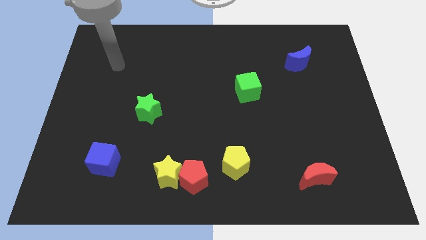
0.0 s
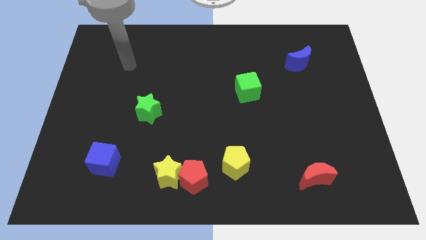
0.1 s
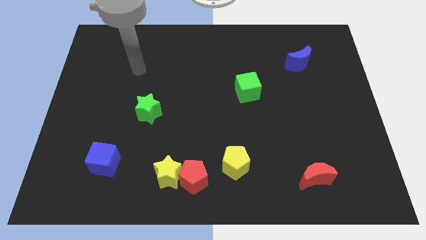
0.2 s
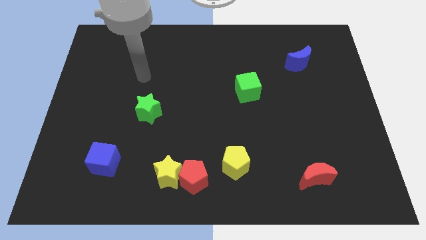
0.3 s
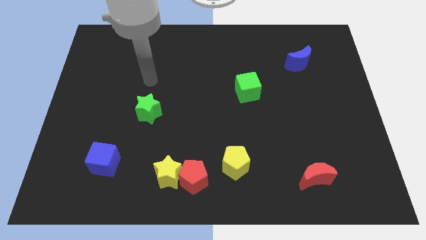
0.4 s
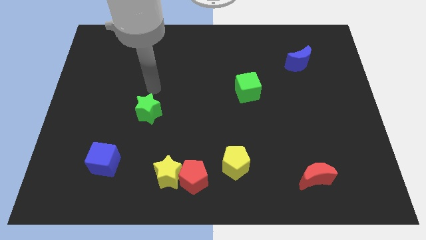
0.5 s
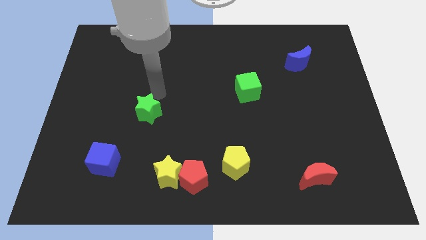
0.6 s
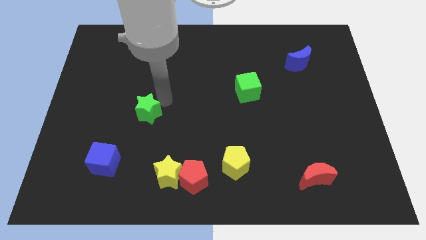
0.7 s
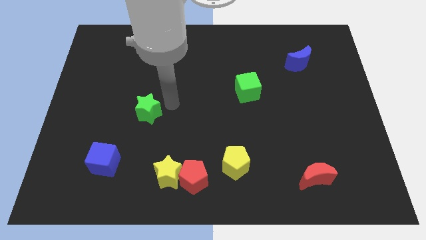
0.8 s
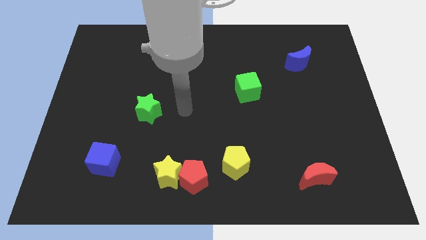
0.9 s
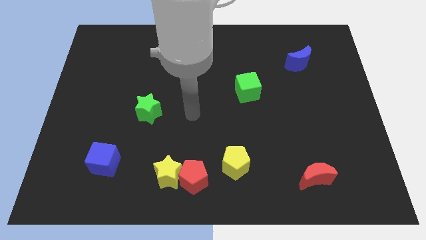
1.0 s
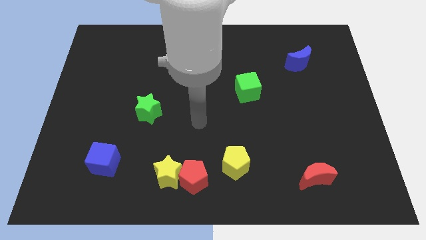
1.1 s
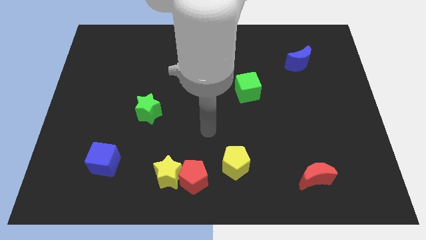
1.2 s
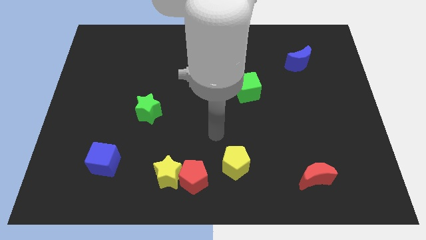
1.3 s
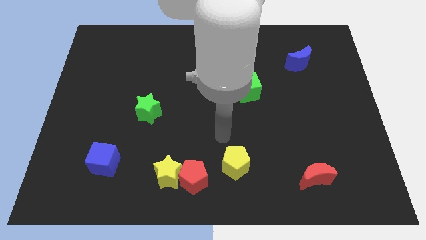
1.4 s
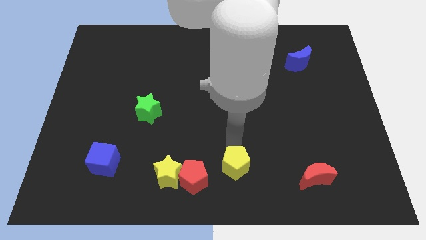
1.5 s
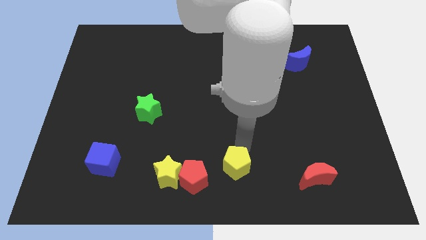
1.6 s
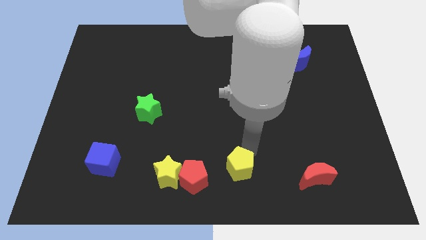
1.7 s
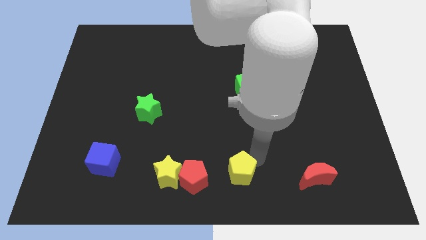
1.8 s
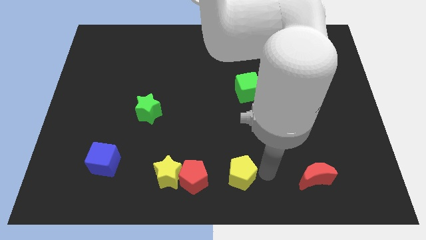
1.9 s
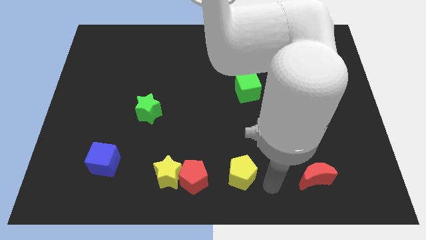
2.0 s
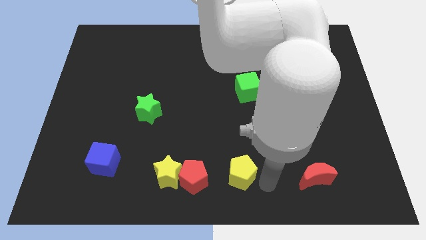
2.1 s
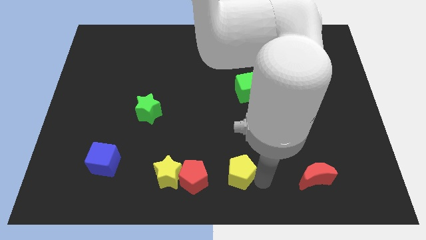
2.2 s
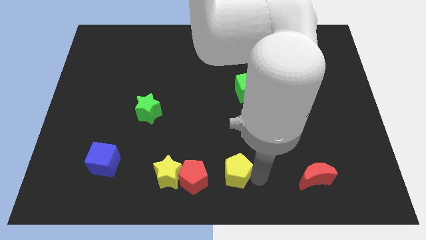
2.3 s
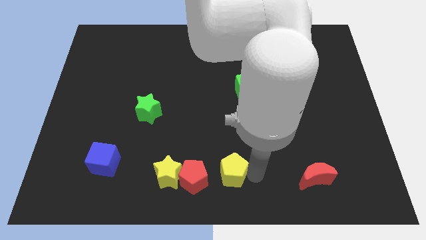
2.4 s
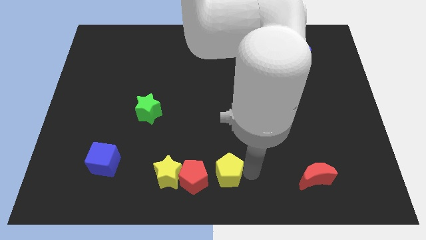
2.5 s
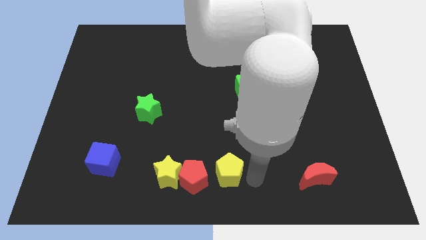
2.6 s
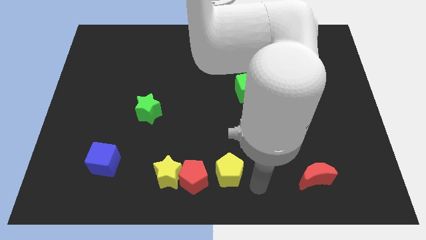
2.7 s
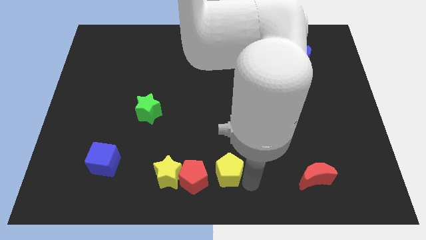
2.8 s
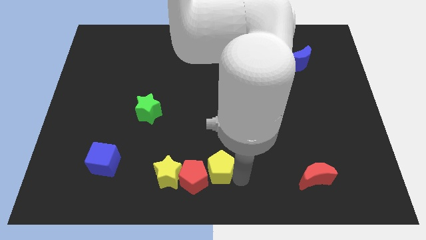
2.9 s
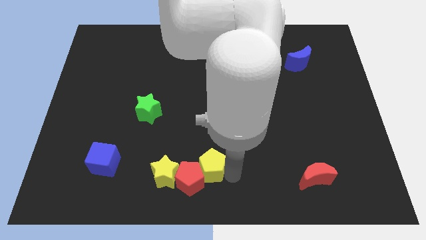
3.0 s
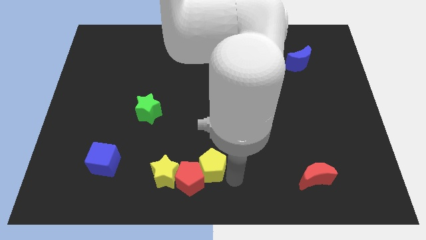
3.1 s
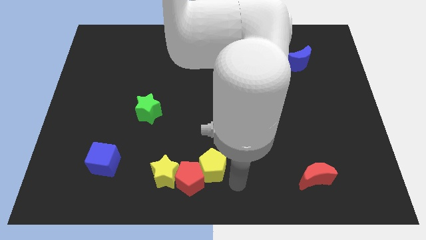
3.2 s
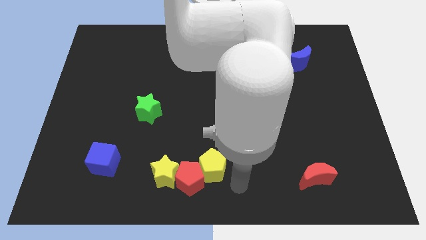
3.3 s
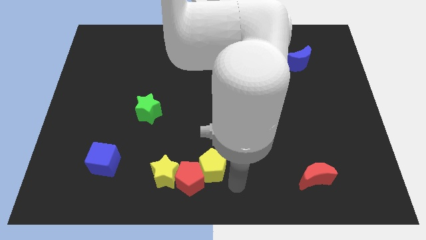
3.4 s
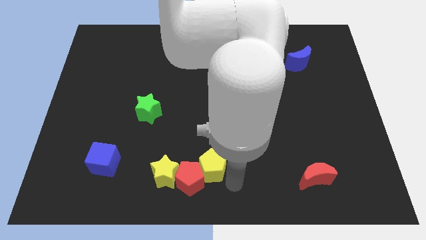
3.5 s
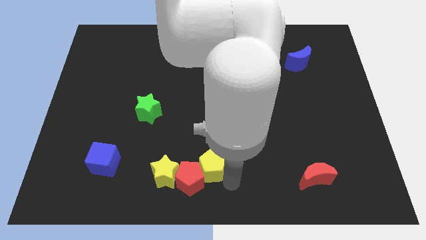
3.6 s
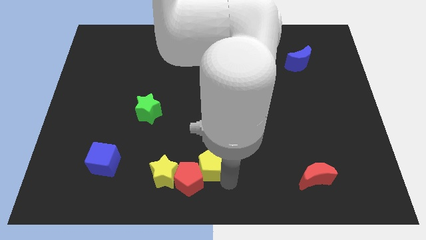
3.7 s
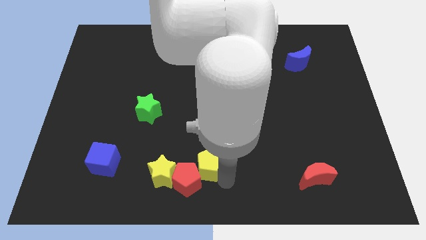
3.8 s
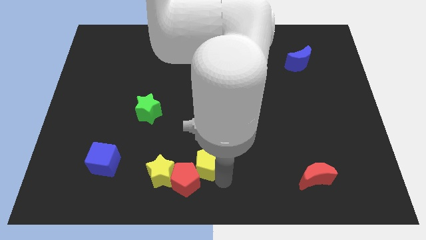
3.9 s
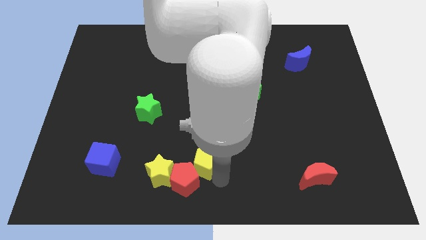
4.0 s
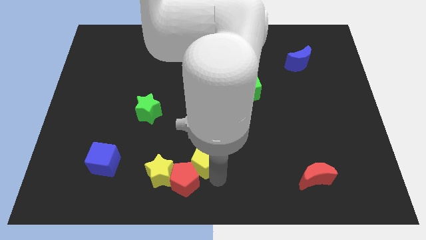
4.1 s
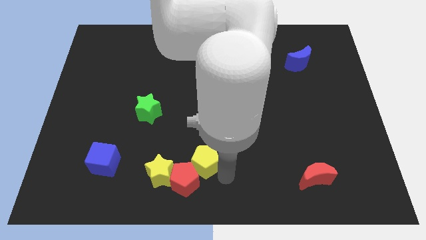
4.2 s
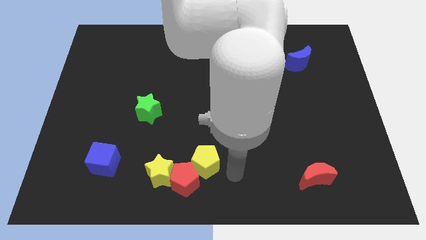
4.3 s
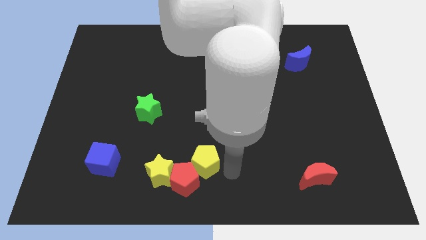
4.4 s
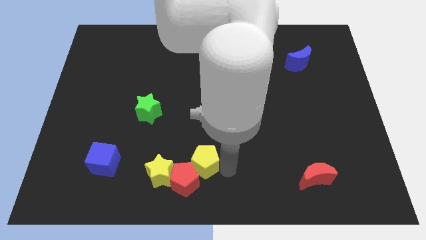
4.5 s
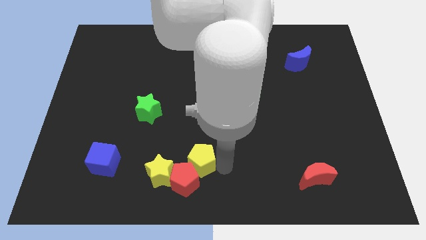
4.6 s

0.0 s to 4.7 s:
push the yellow pentagon slightly to the left

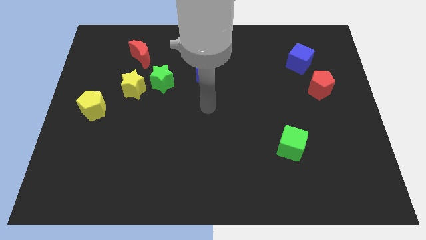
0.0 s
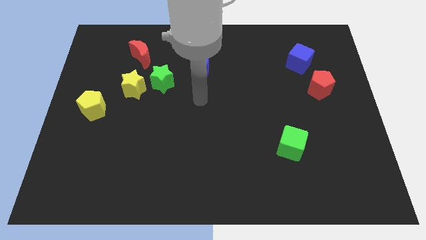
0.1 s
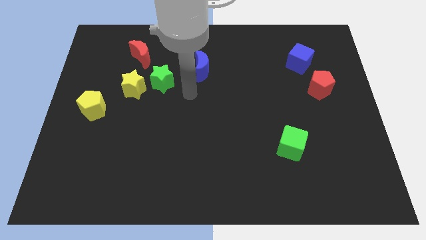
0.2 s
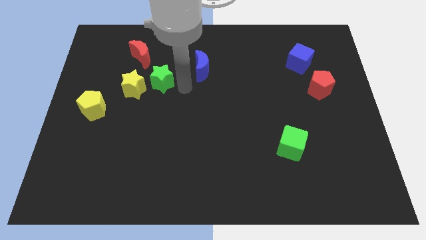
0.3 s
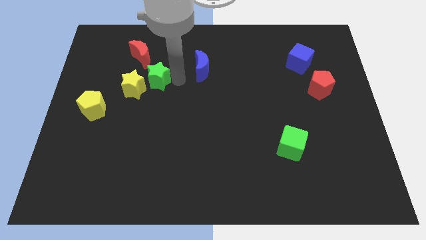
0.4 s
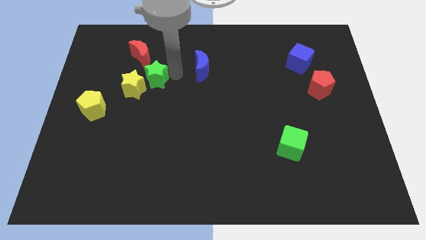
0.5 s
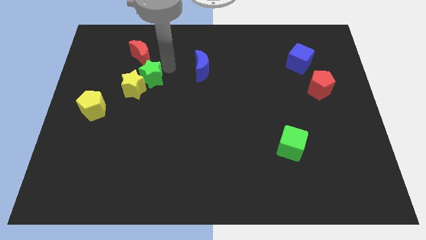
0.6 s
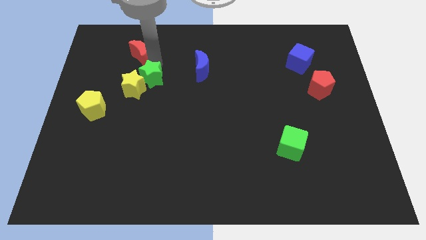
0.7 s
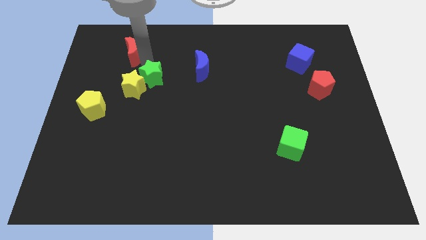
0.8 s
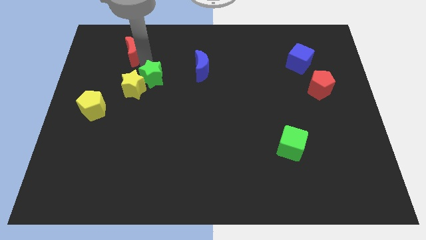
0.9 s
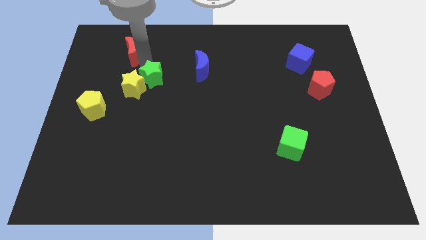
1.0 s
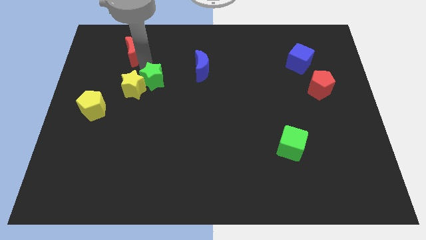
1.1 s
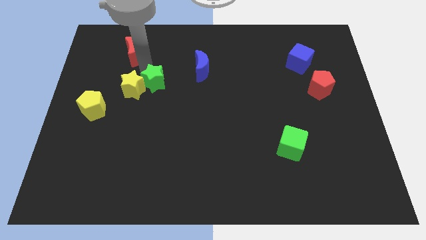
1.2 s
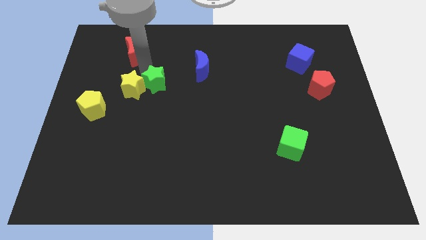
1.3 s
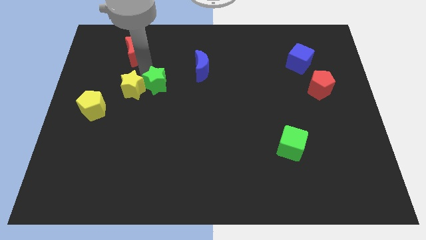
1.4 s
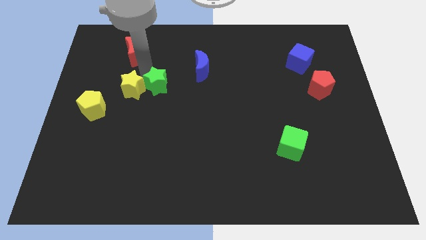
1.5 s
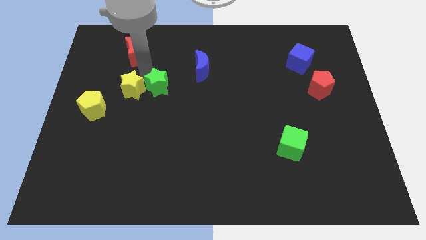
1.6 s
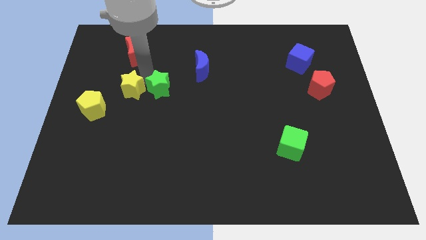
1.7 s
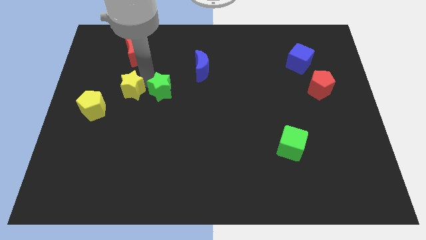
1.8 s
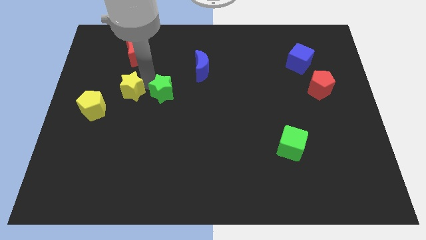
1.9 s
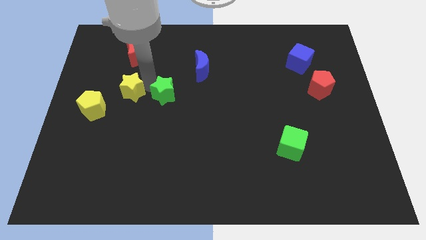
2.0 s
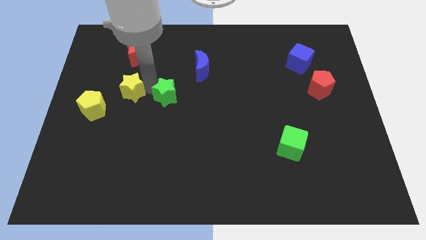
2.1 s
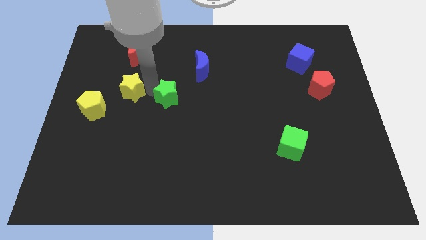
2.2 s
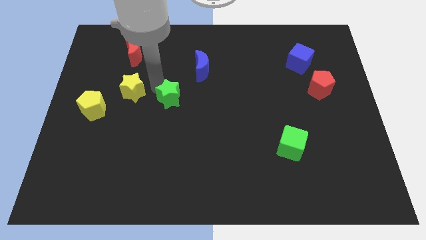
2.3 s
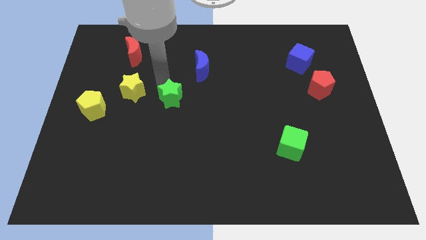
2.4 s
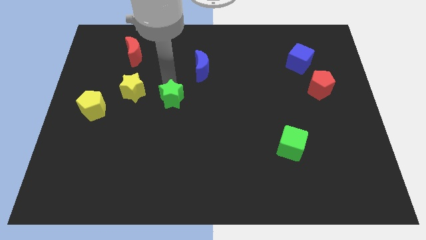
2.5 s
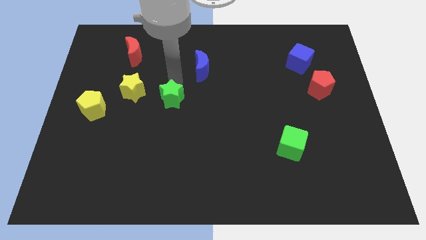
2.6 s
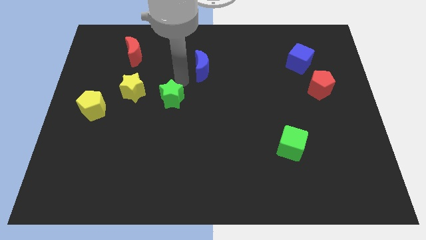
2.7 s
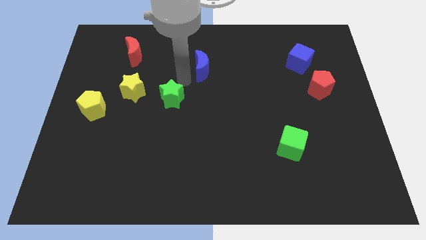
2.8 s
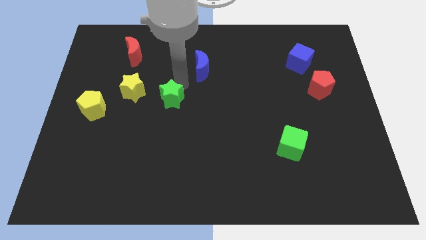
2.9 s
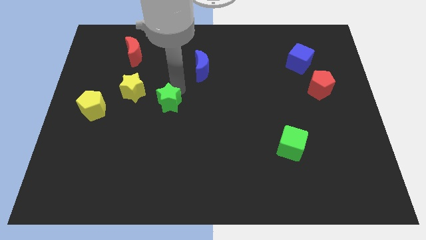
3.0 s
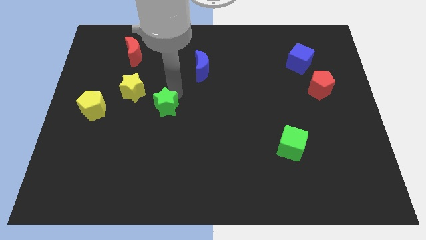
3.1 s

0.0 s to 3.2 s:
slightly move the green star downwards

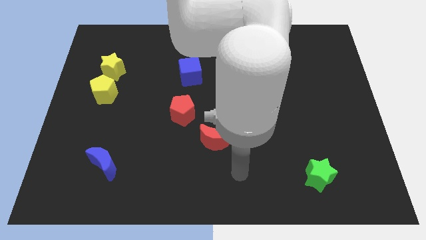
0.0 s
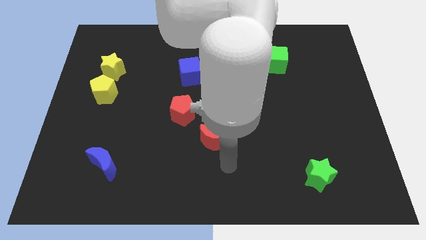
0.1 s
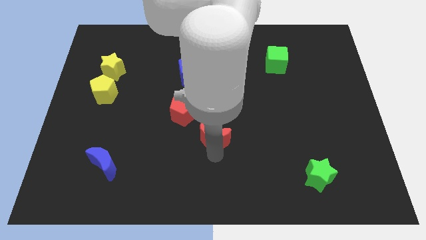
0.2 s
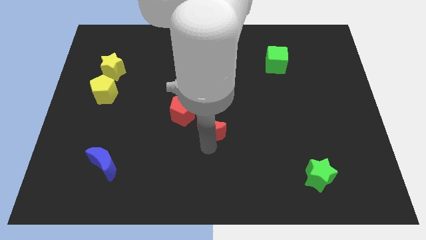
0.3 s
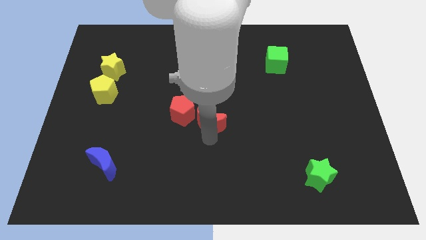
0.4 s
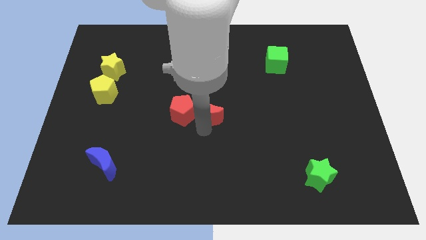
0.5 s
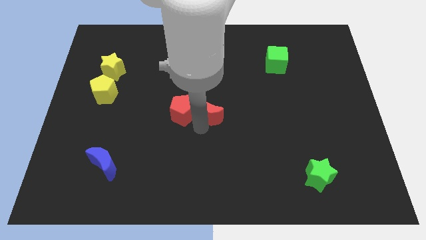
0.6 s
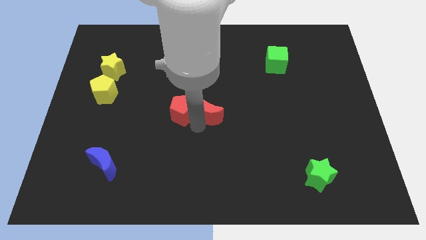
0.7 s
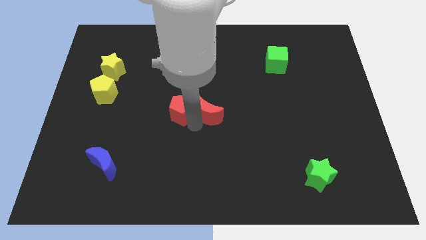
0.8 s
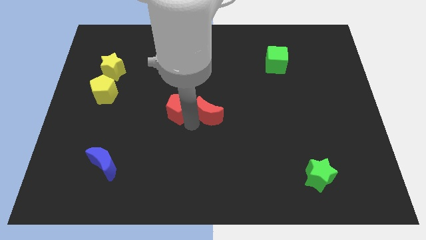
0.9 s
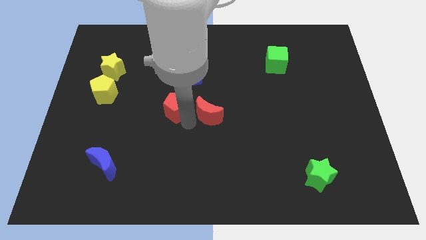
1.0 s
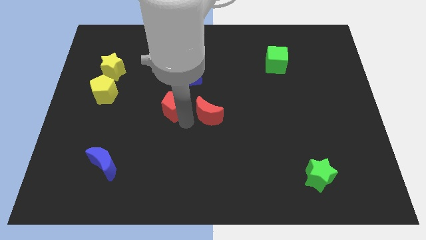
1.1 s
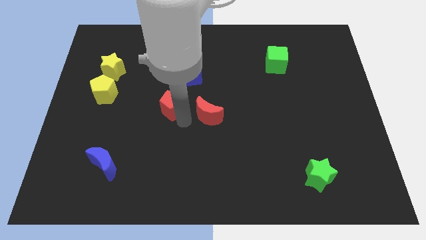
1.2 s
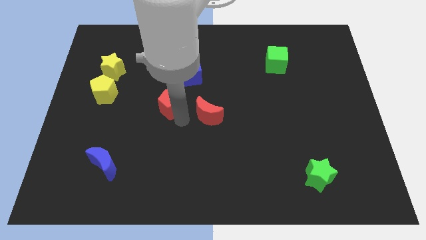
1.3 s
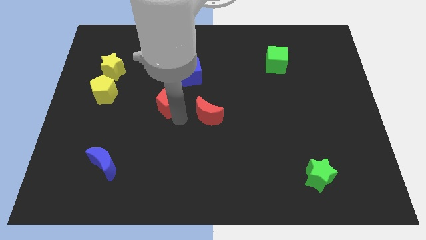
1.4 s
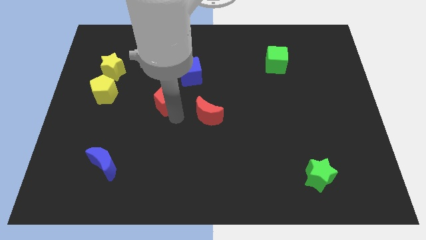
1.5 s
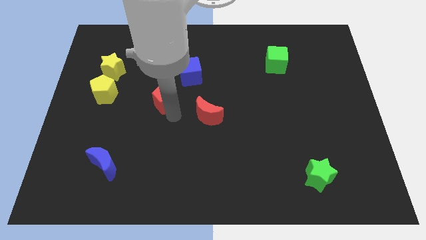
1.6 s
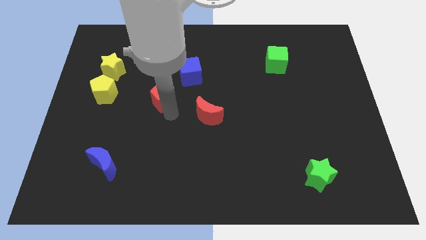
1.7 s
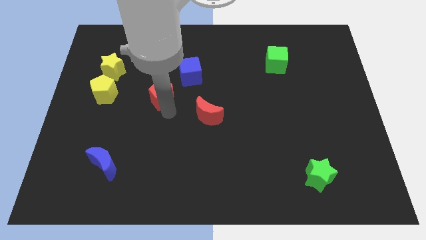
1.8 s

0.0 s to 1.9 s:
slightly push the red pentagon upwards and then left
